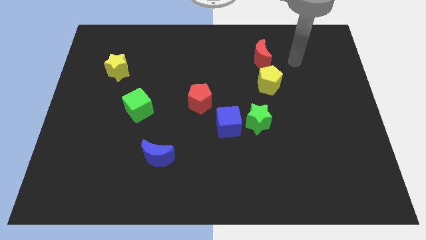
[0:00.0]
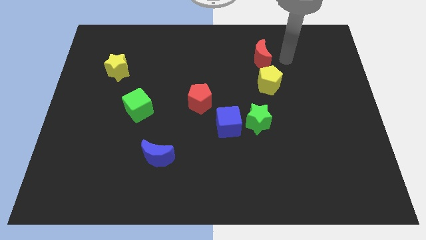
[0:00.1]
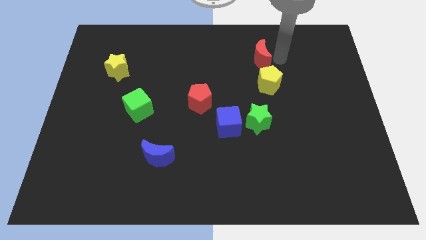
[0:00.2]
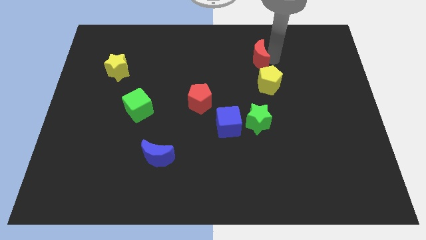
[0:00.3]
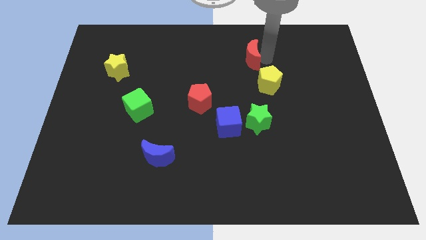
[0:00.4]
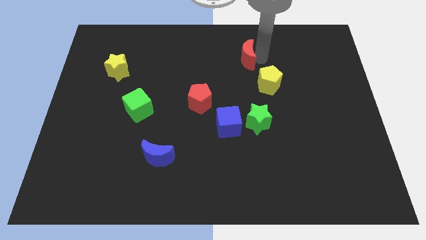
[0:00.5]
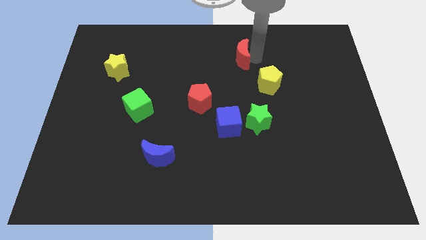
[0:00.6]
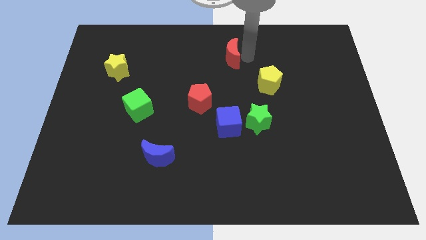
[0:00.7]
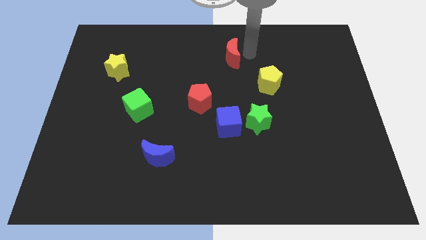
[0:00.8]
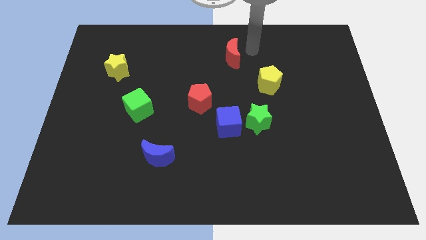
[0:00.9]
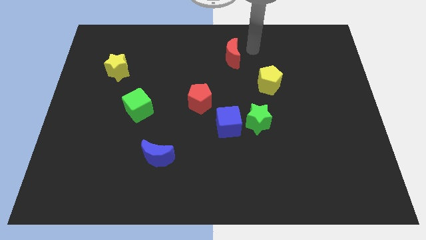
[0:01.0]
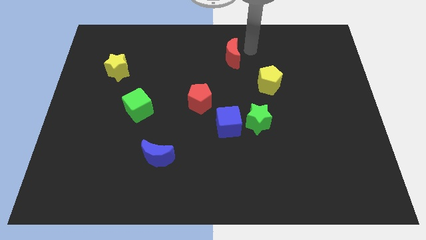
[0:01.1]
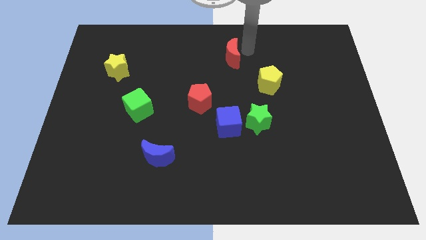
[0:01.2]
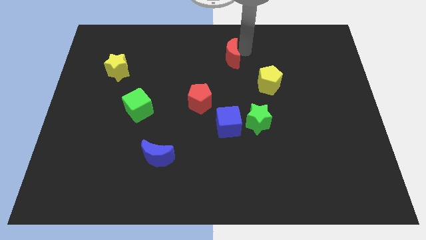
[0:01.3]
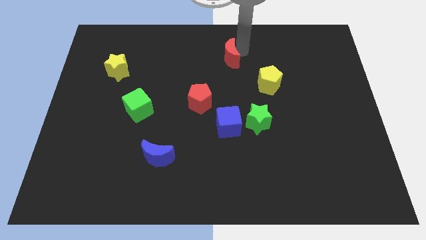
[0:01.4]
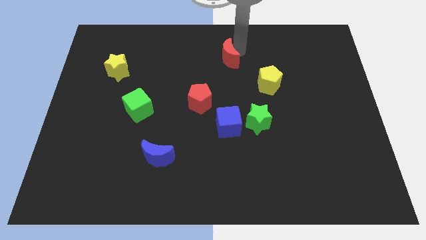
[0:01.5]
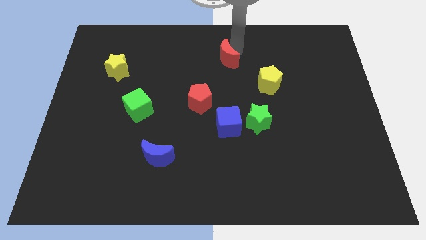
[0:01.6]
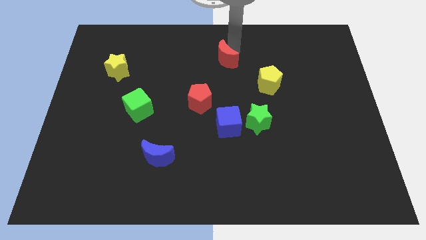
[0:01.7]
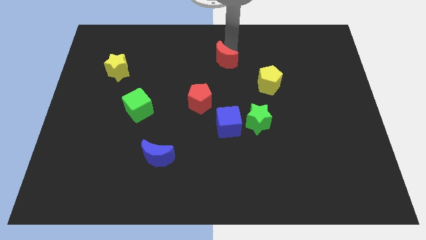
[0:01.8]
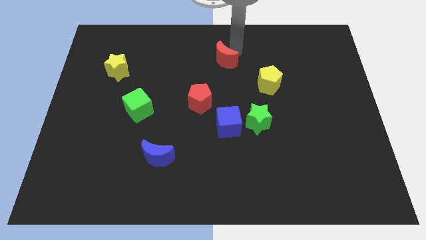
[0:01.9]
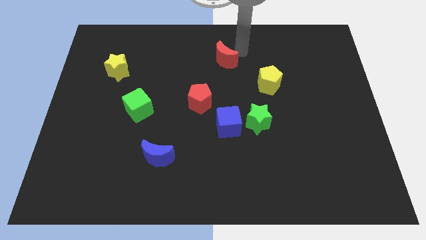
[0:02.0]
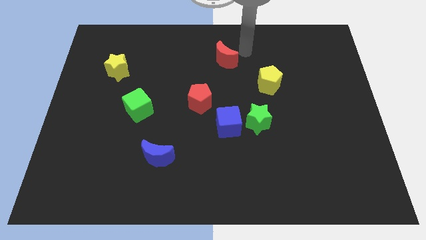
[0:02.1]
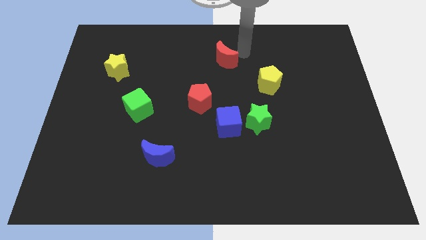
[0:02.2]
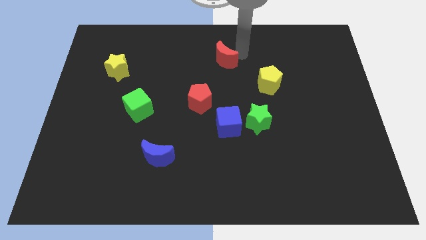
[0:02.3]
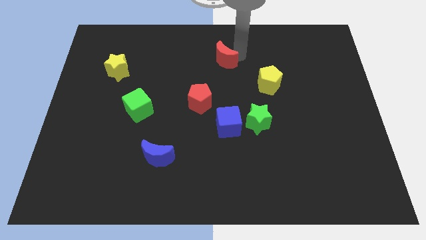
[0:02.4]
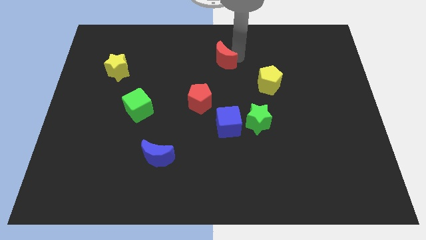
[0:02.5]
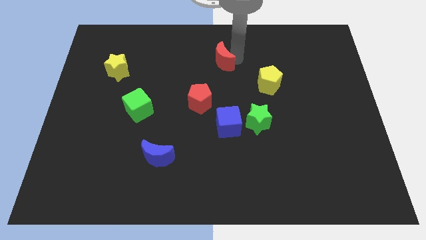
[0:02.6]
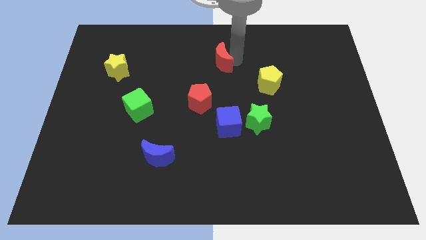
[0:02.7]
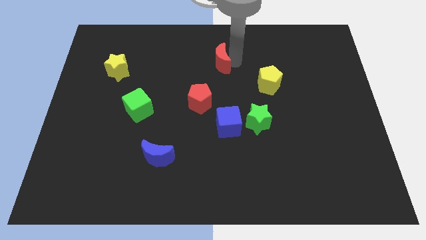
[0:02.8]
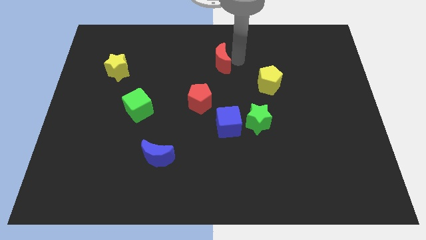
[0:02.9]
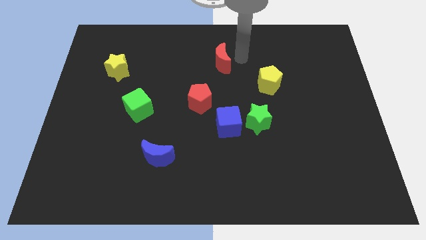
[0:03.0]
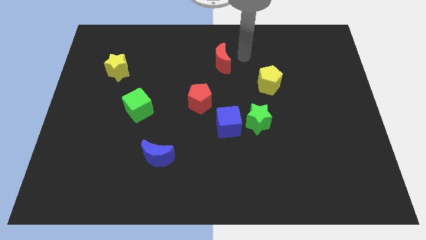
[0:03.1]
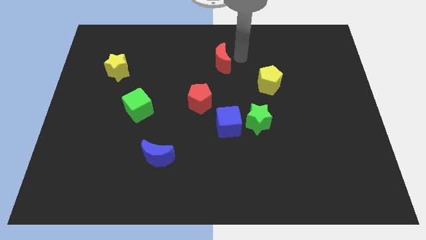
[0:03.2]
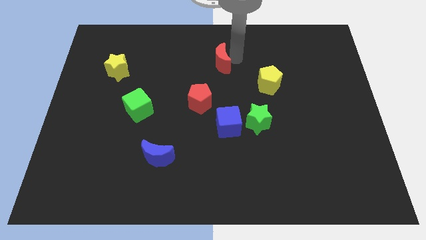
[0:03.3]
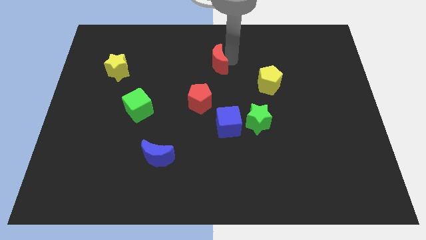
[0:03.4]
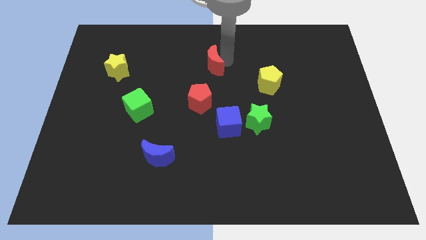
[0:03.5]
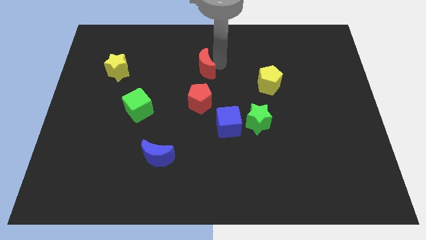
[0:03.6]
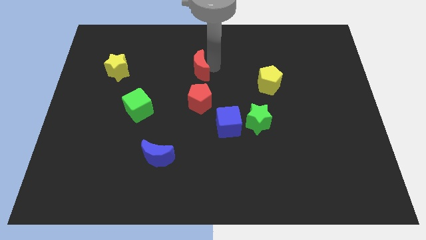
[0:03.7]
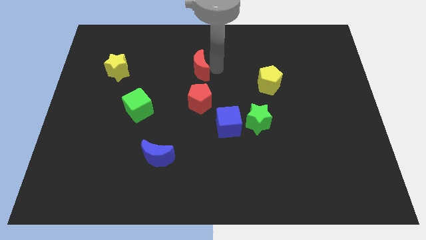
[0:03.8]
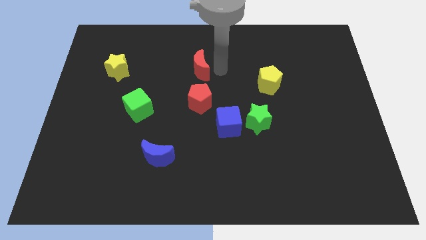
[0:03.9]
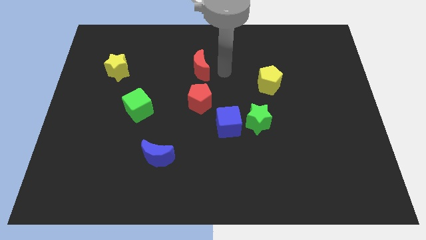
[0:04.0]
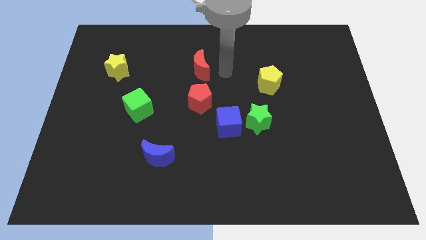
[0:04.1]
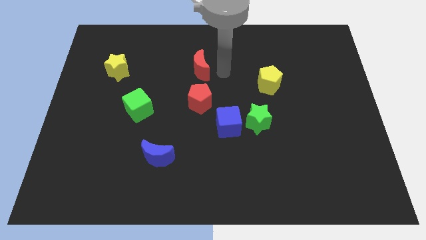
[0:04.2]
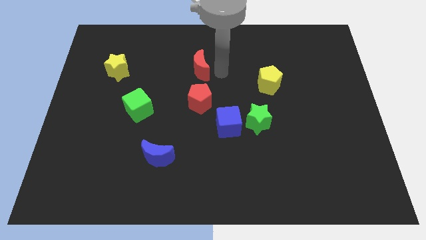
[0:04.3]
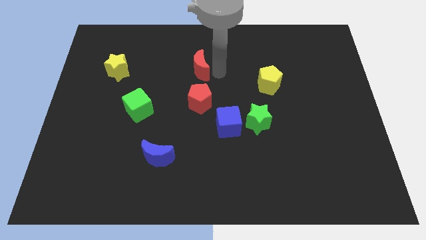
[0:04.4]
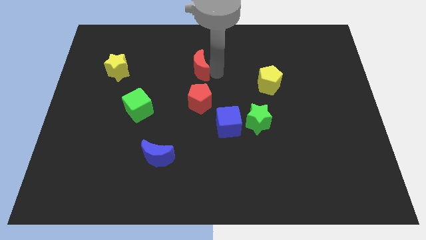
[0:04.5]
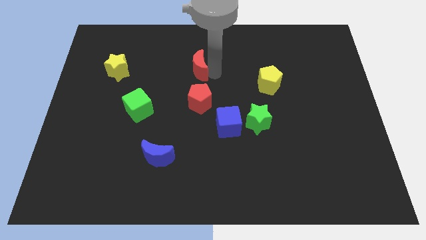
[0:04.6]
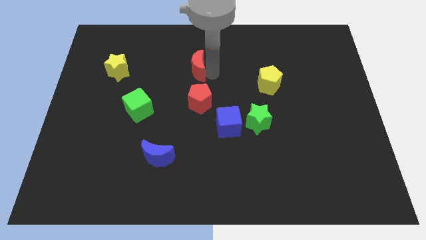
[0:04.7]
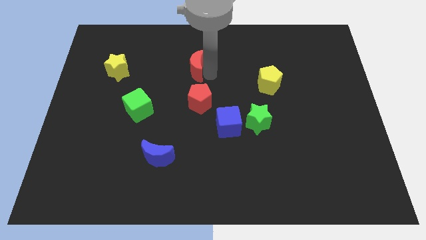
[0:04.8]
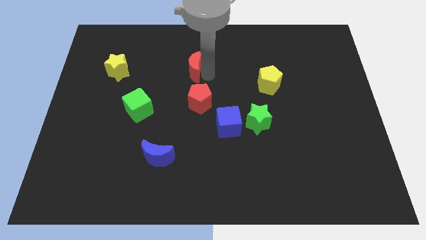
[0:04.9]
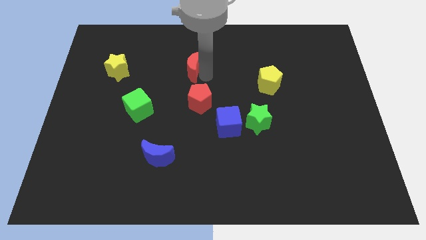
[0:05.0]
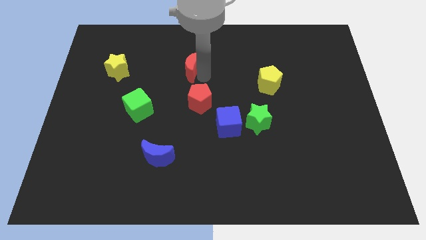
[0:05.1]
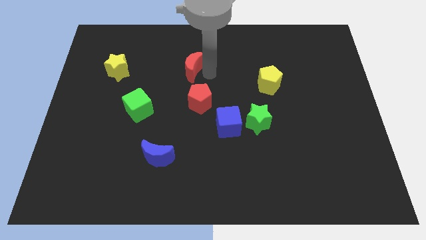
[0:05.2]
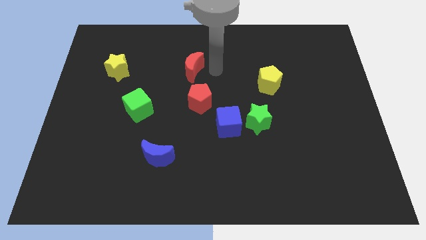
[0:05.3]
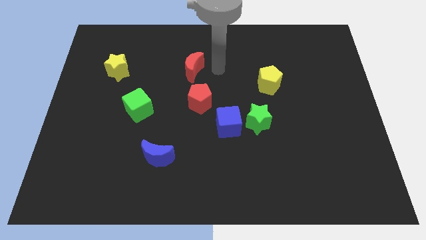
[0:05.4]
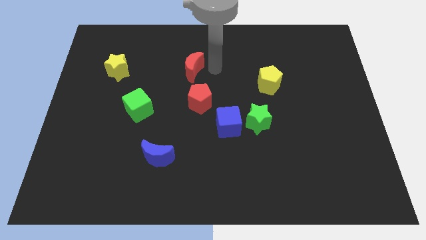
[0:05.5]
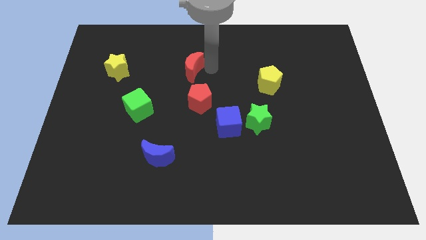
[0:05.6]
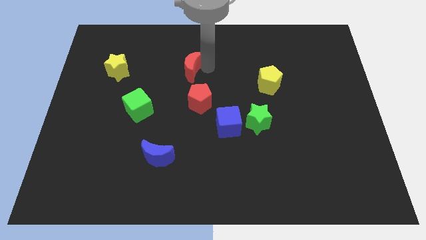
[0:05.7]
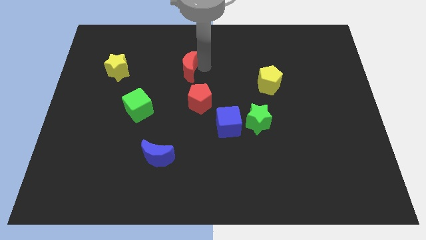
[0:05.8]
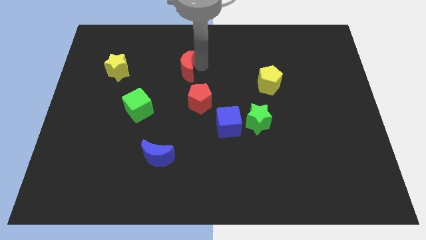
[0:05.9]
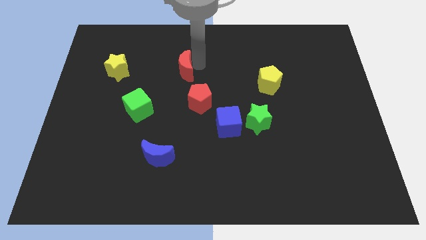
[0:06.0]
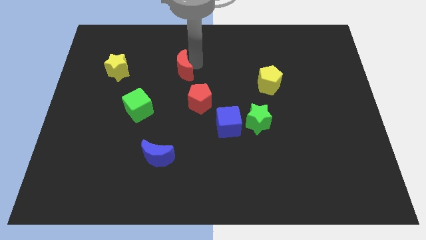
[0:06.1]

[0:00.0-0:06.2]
move the red moon just right of the yellow star

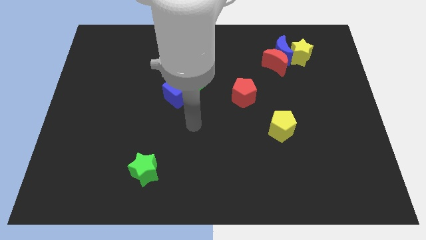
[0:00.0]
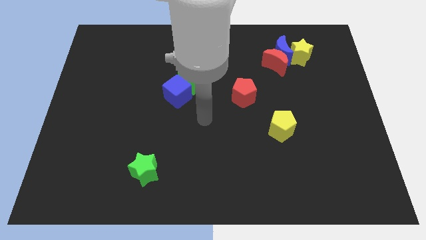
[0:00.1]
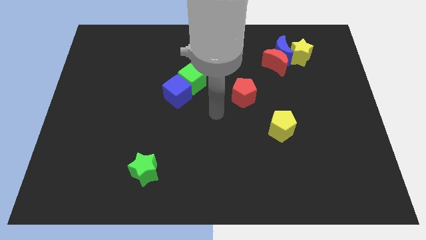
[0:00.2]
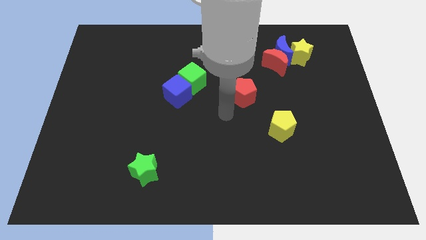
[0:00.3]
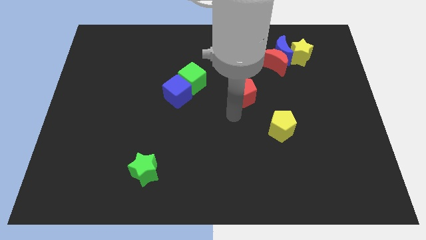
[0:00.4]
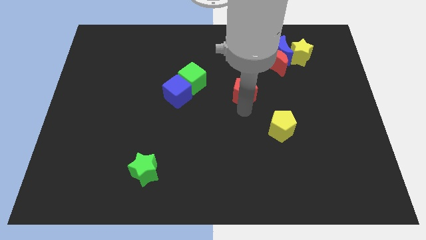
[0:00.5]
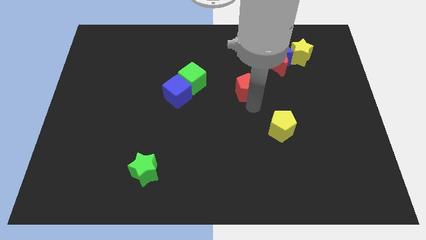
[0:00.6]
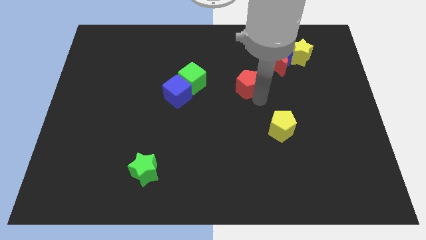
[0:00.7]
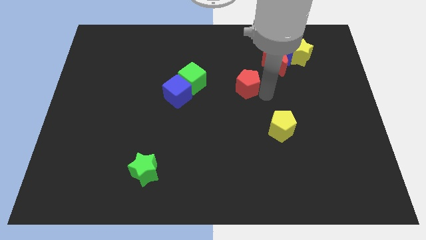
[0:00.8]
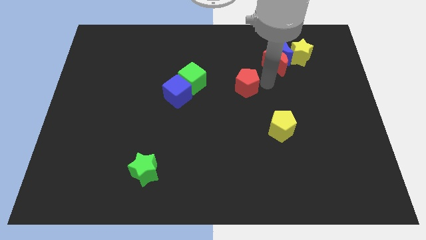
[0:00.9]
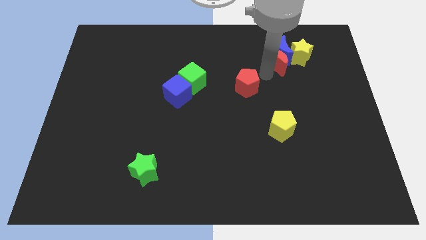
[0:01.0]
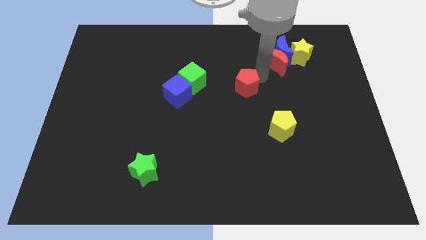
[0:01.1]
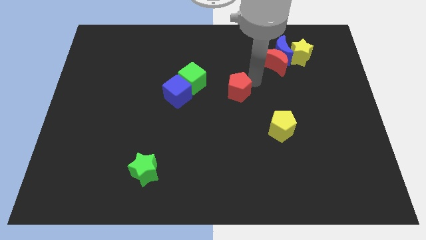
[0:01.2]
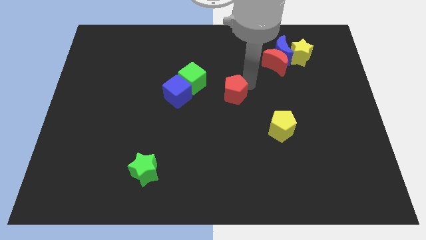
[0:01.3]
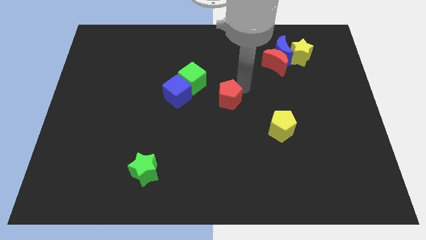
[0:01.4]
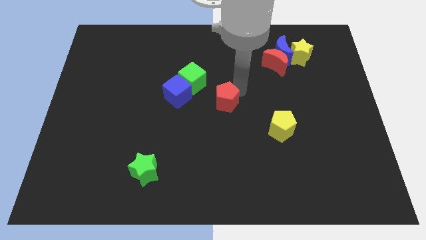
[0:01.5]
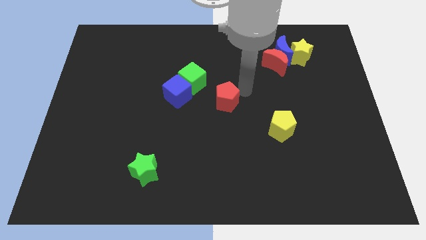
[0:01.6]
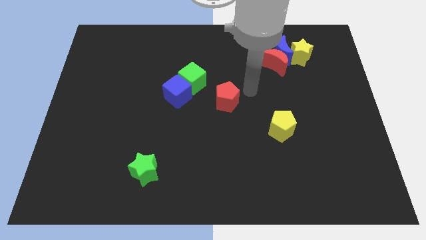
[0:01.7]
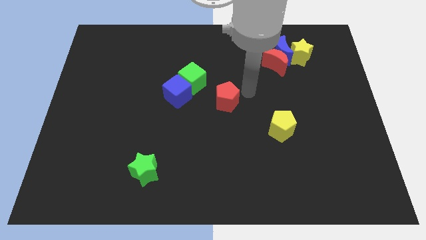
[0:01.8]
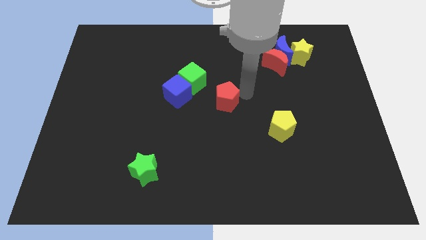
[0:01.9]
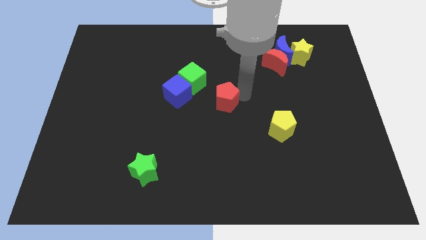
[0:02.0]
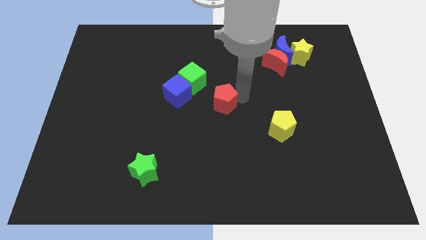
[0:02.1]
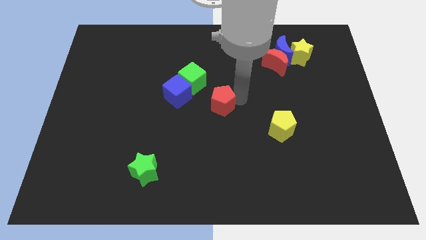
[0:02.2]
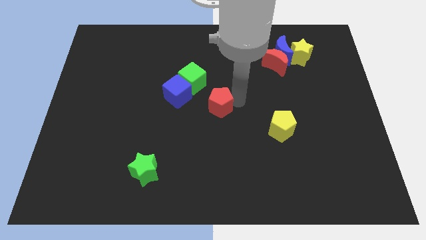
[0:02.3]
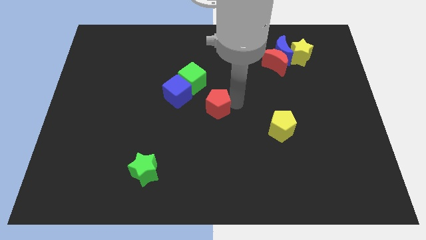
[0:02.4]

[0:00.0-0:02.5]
move the red pentagon to the bottom right side of the blue cube
